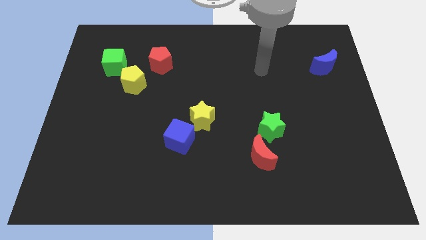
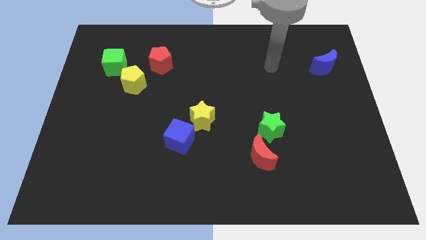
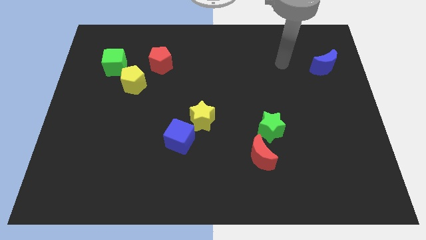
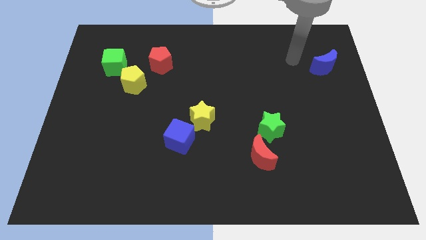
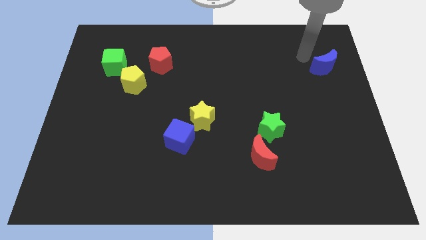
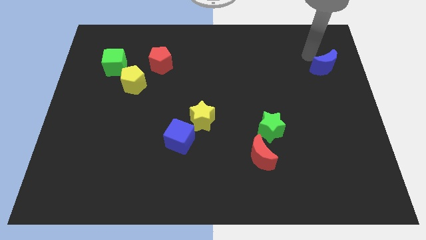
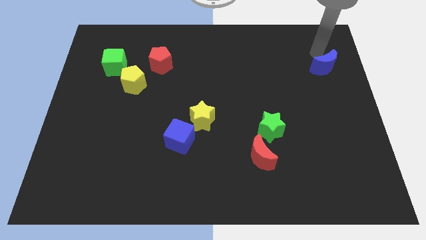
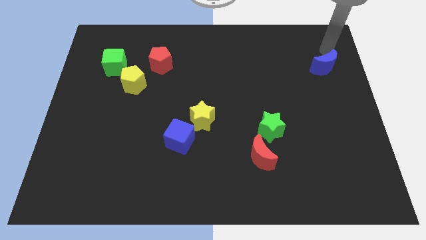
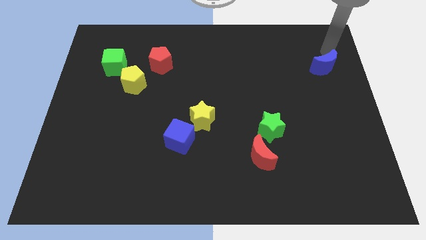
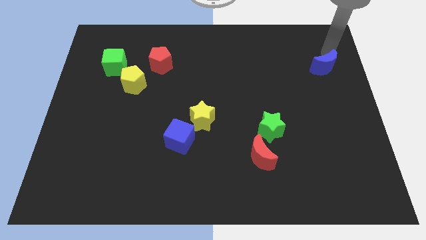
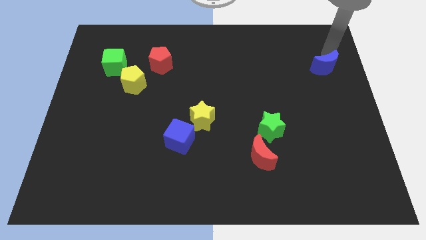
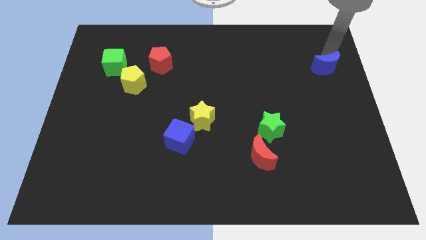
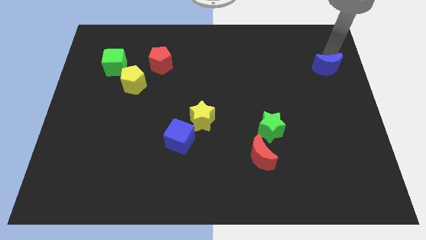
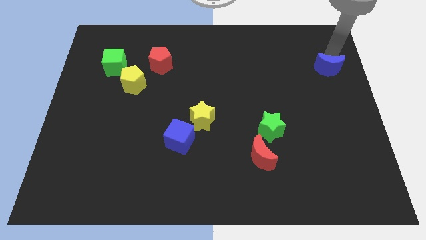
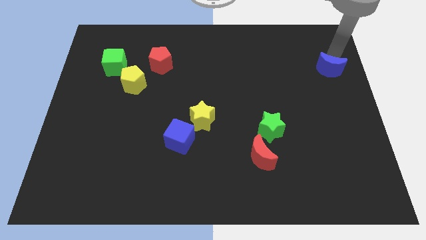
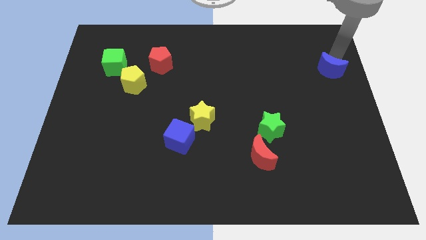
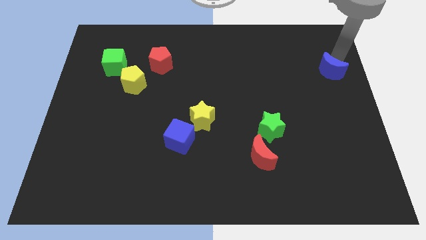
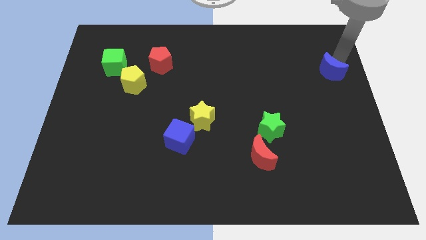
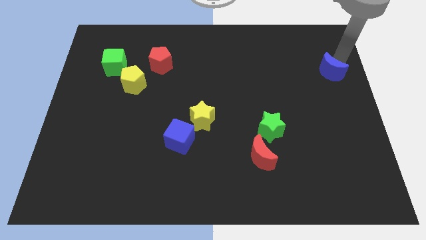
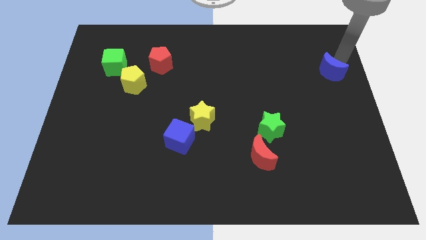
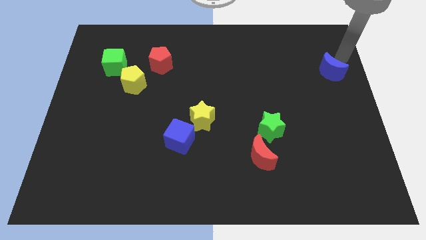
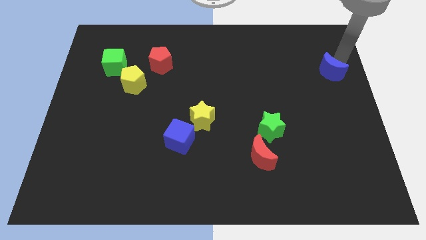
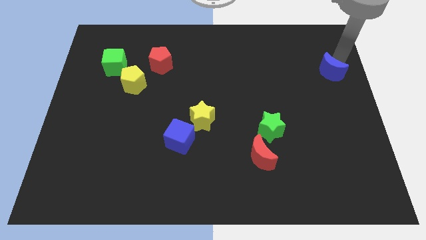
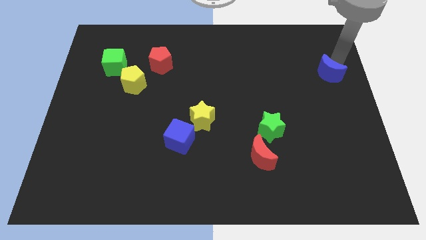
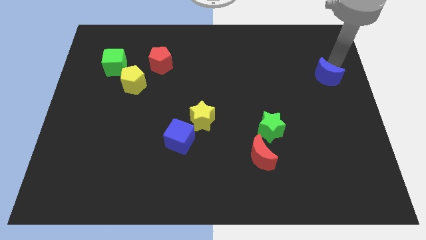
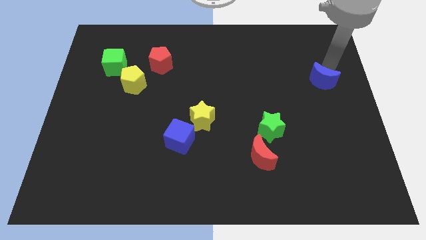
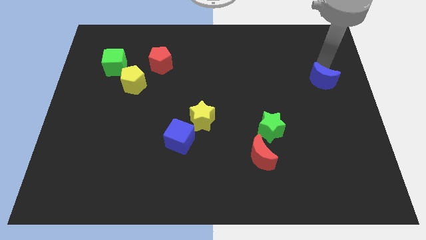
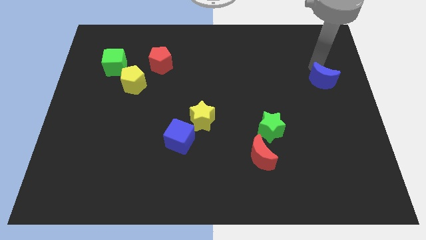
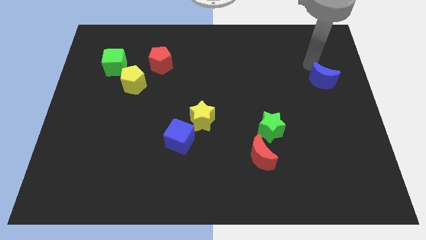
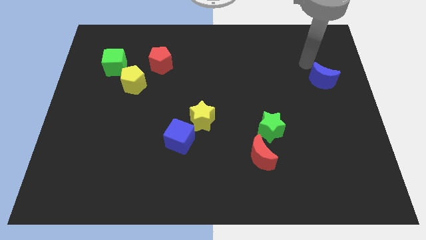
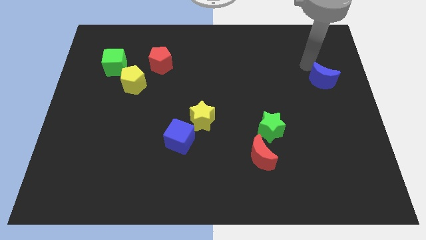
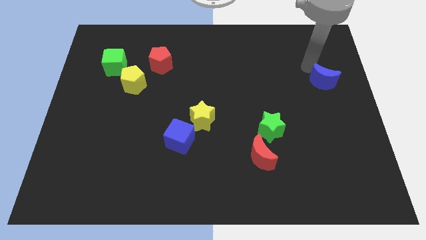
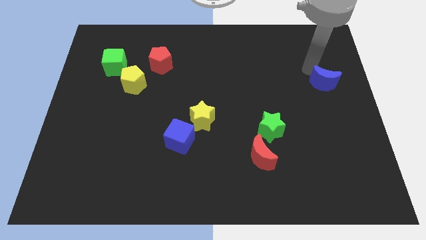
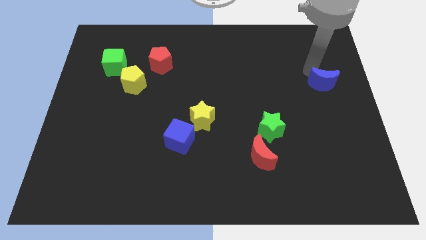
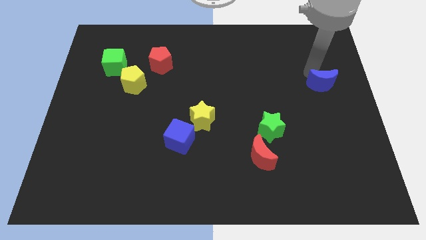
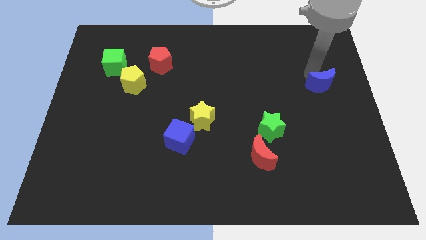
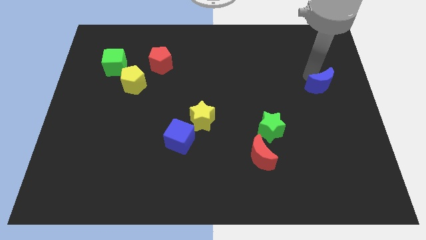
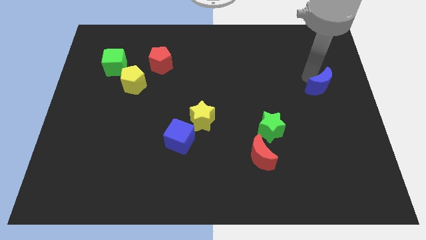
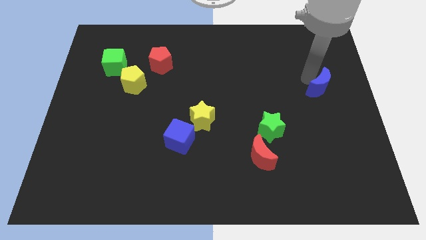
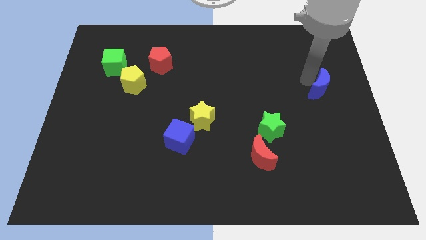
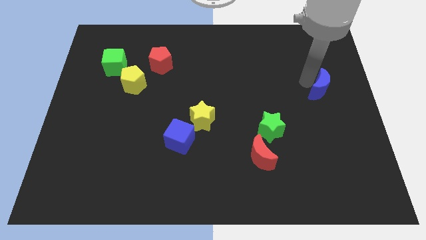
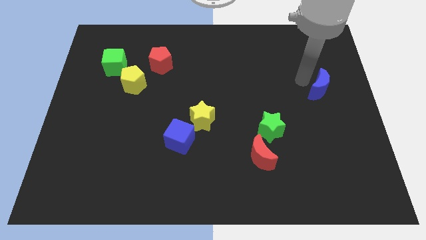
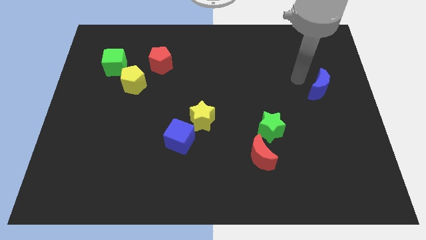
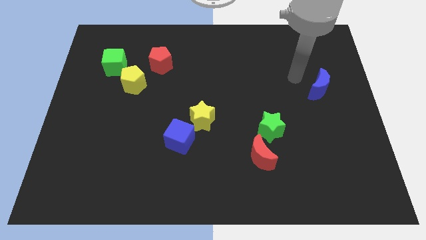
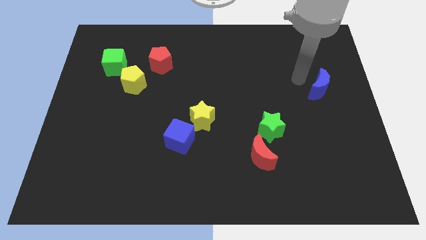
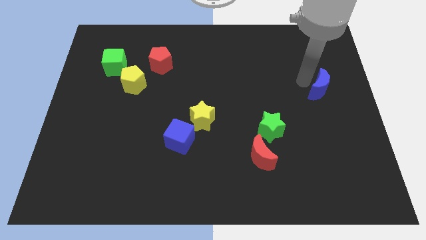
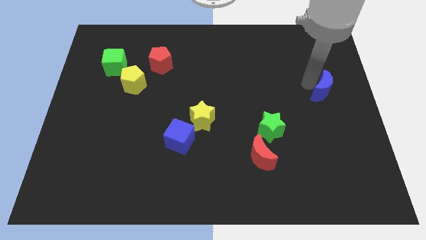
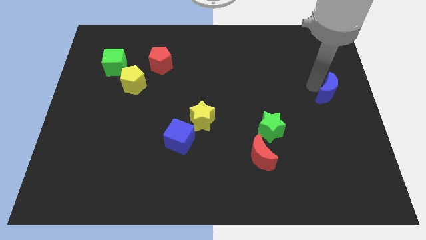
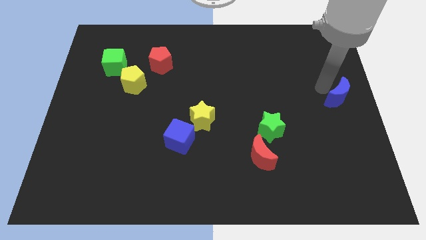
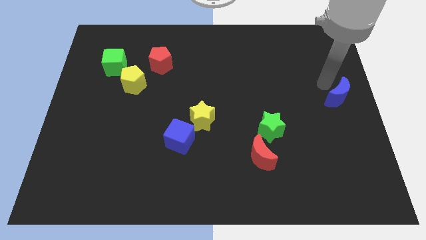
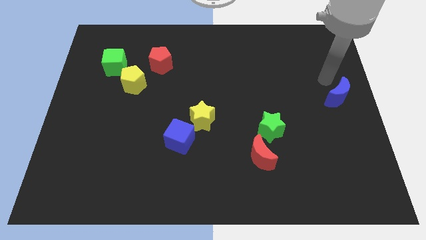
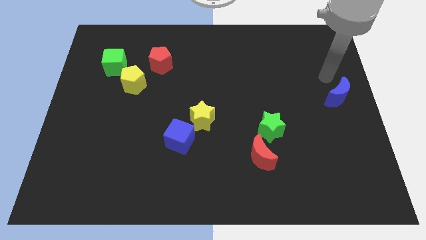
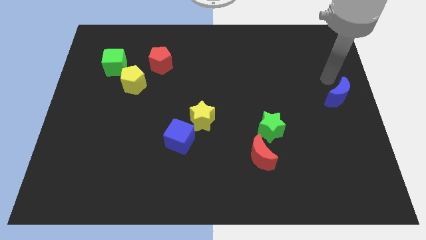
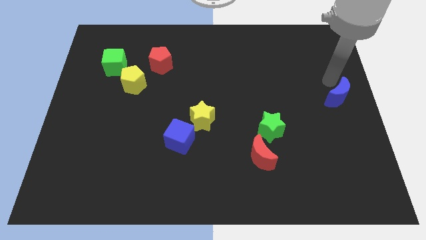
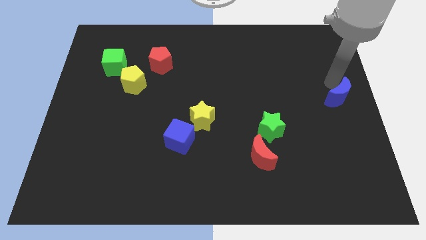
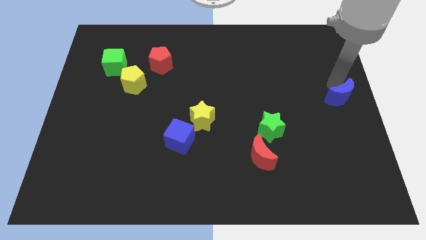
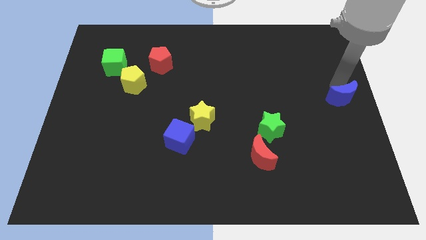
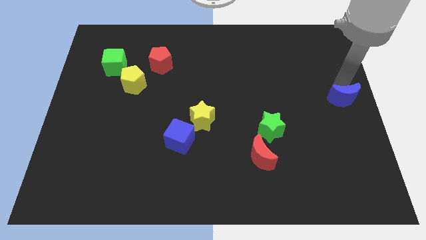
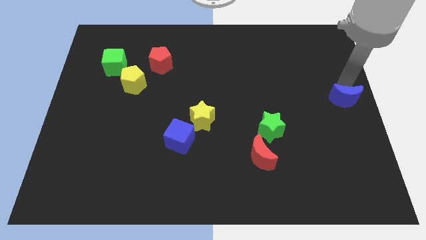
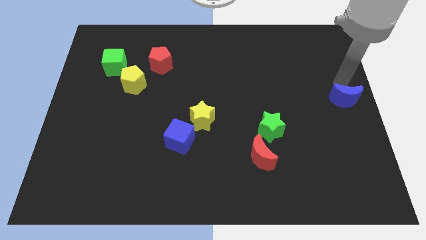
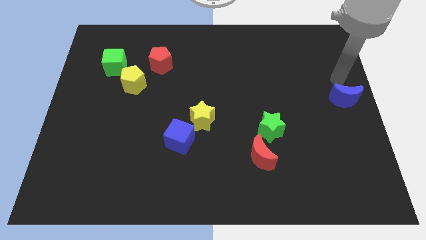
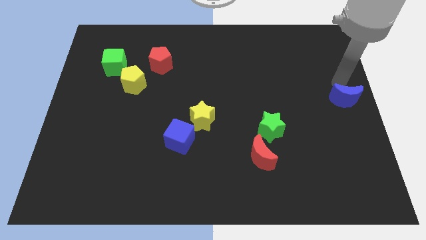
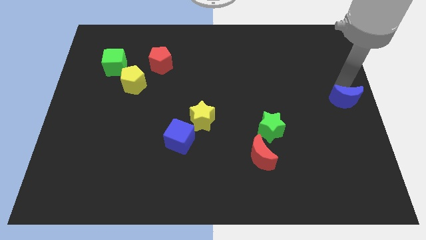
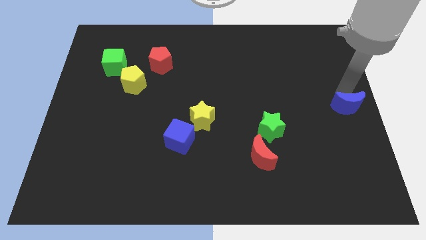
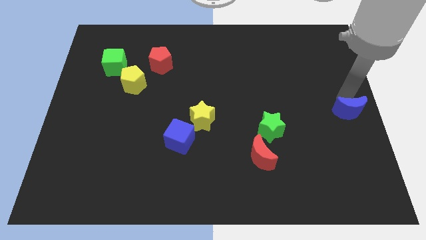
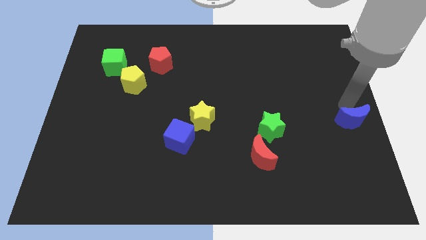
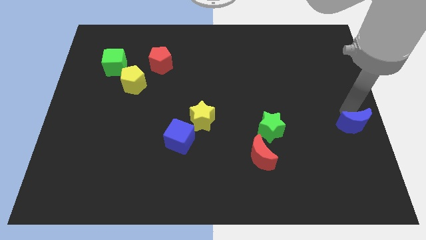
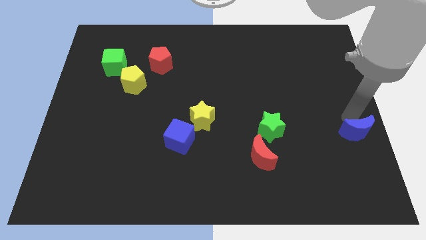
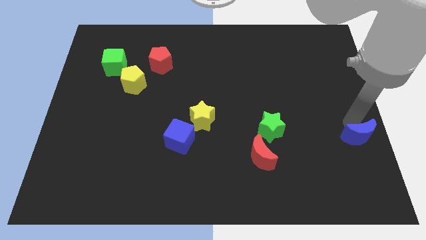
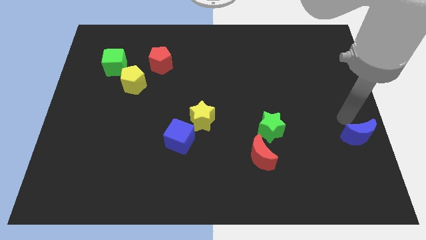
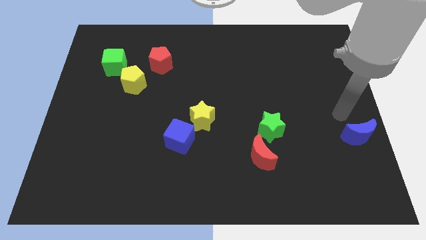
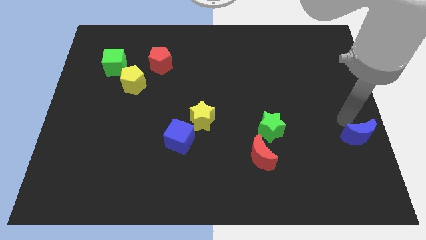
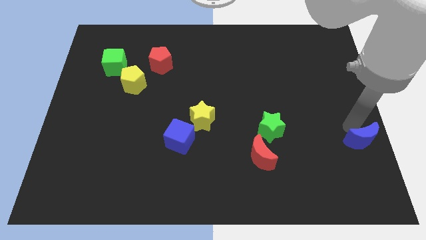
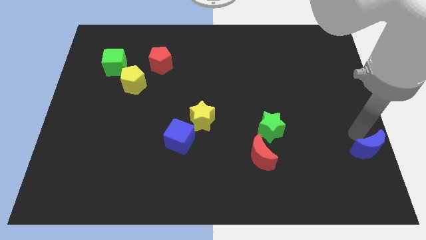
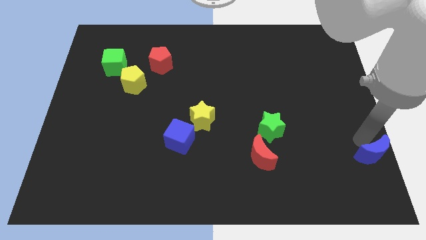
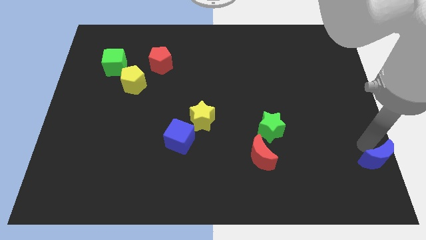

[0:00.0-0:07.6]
move the blue moon to the bottom right corner
